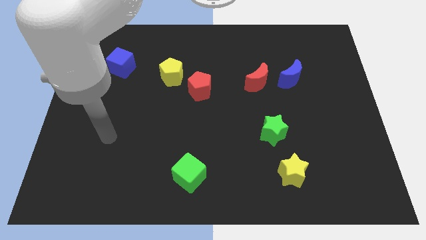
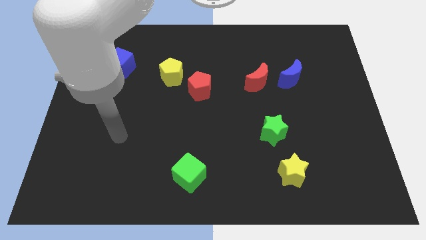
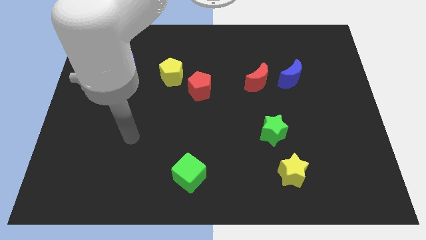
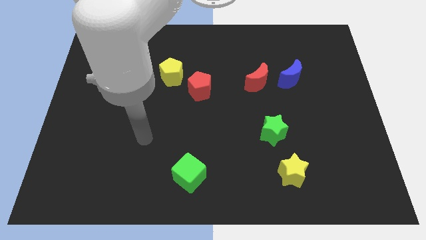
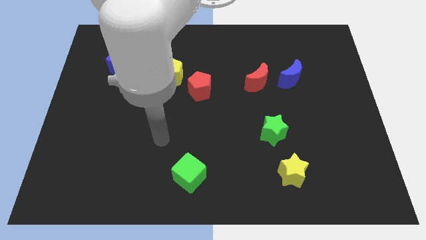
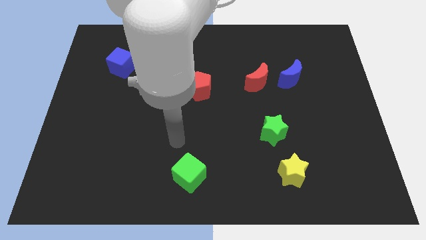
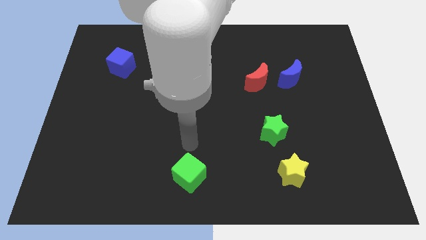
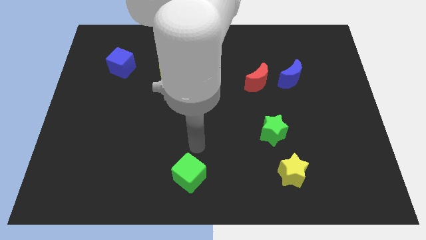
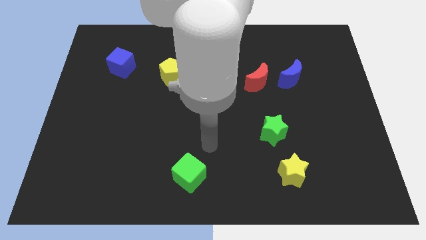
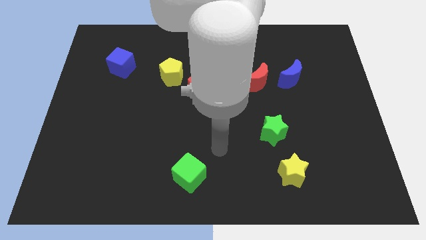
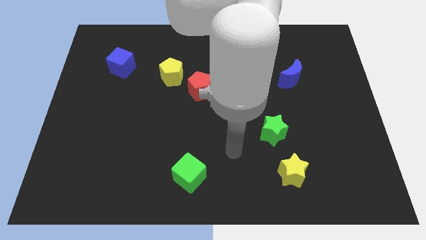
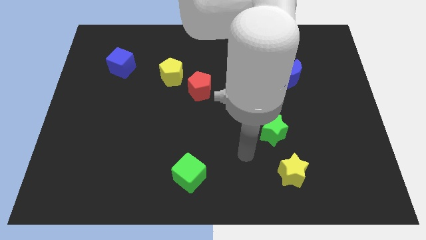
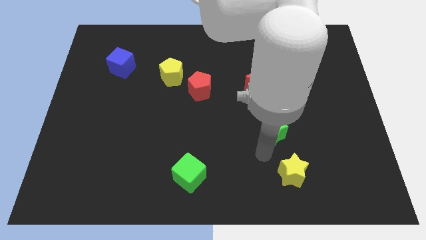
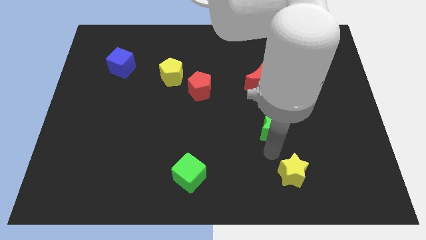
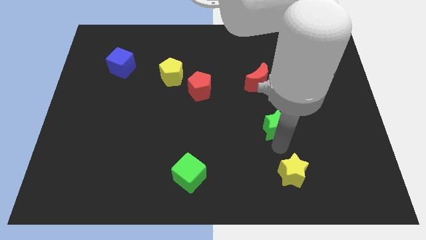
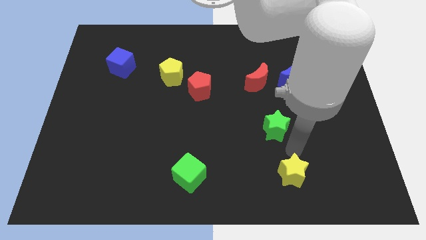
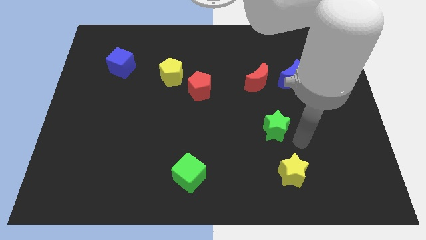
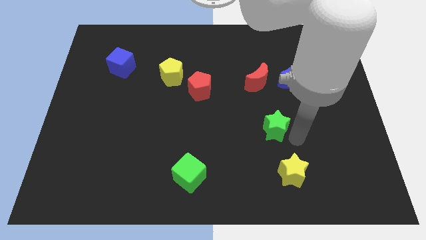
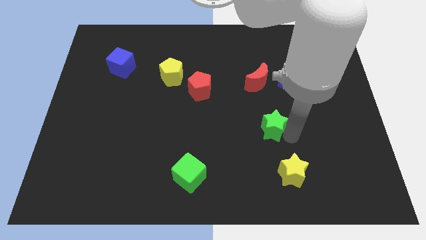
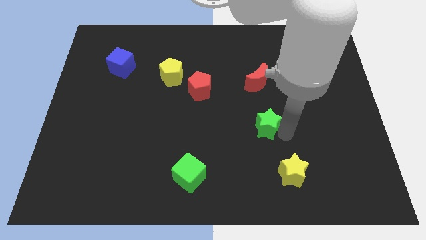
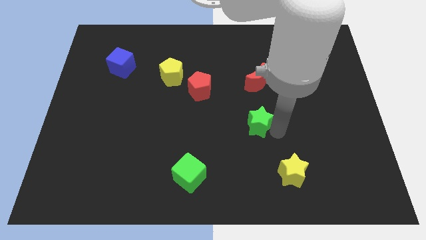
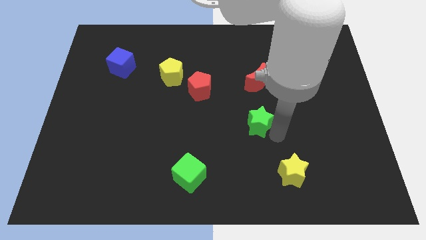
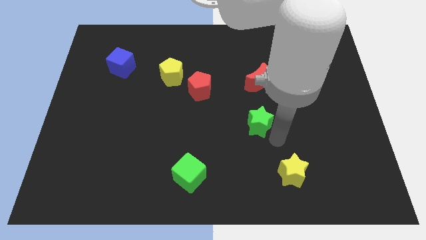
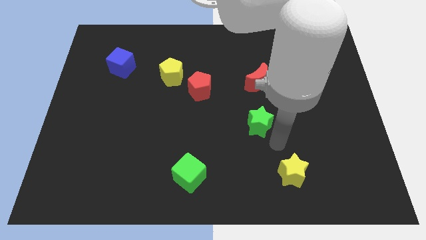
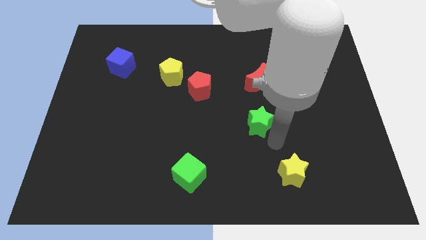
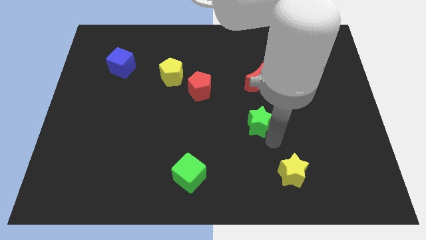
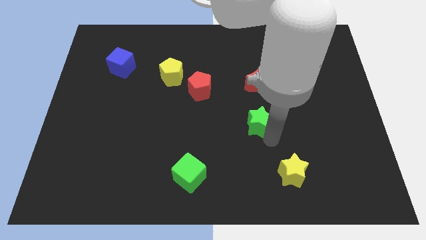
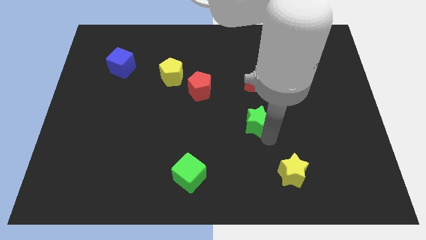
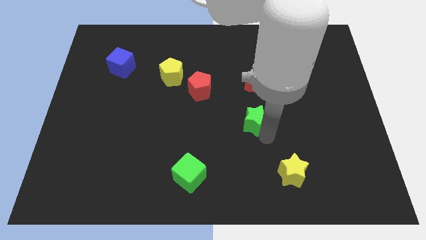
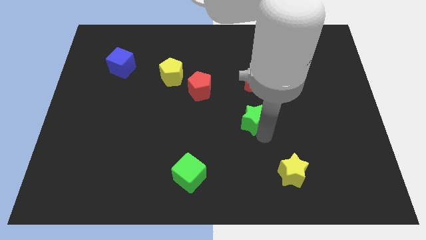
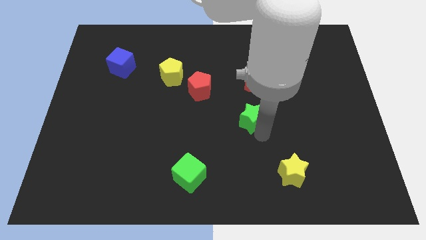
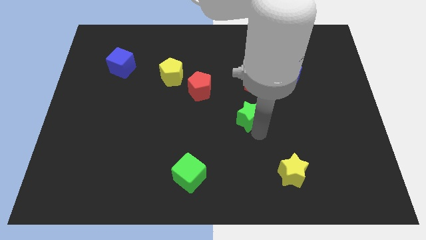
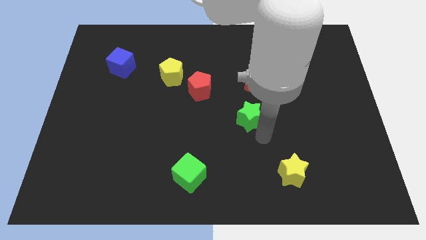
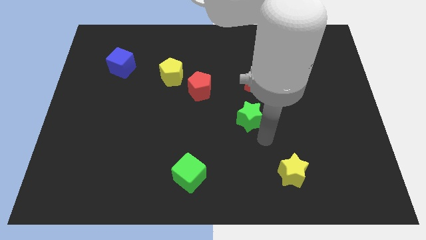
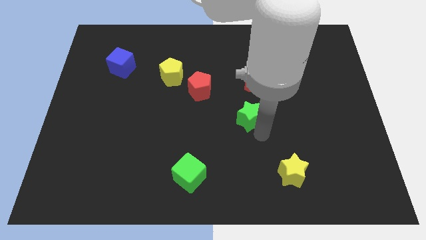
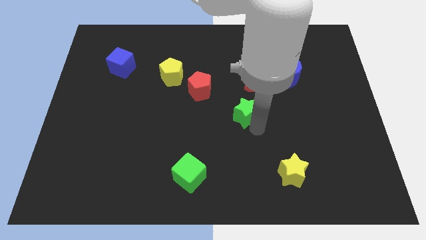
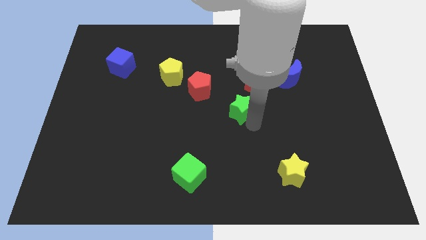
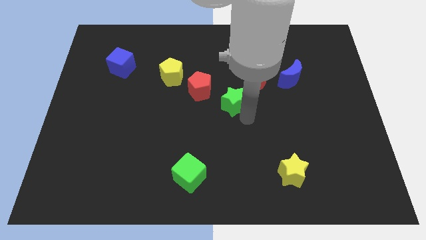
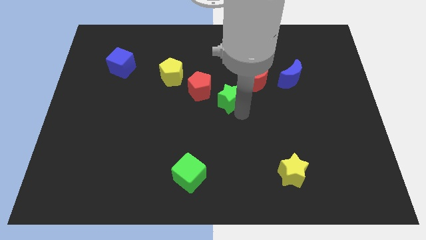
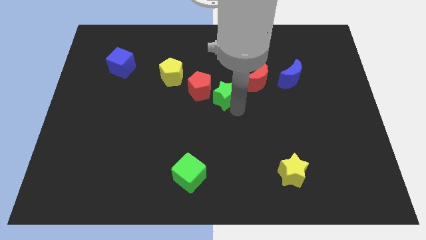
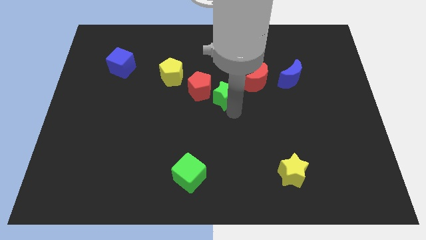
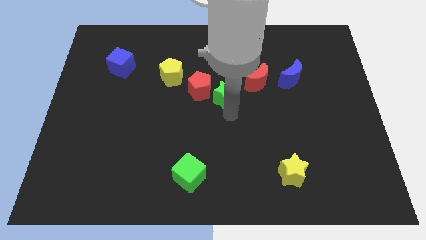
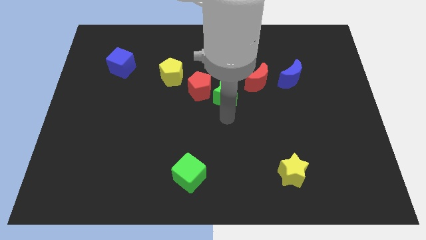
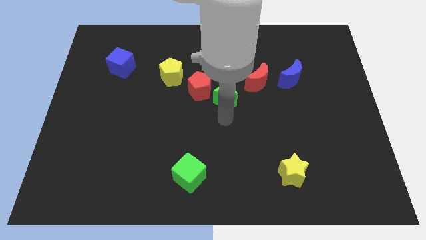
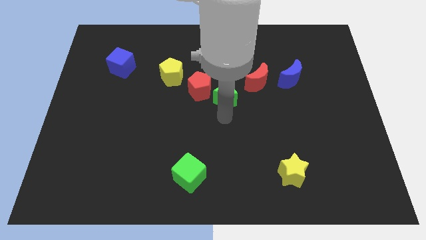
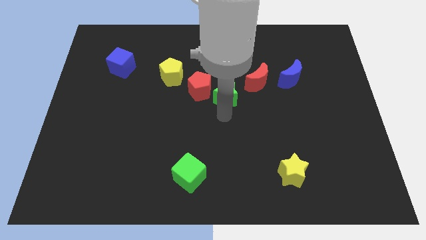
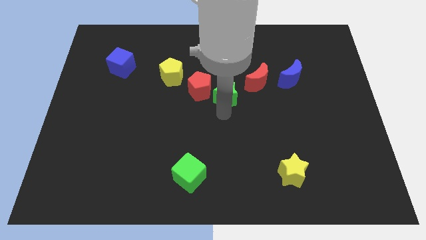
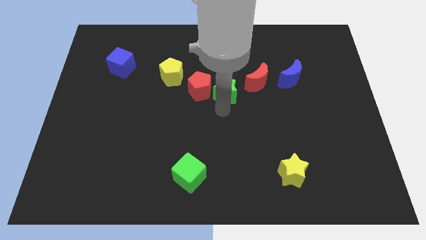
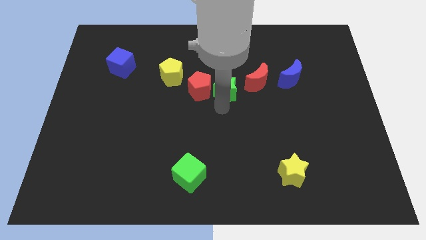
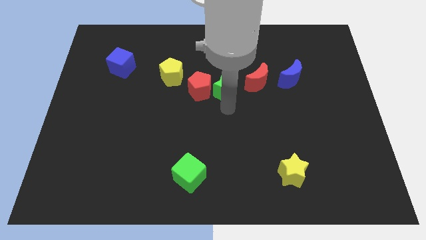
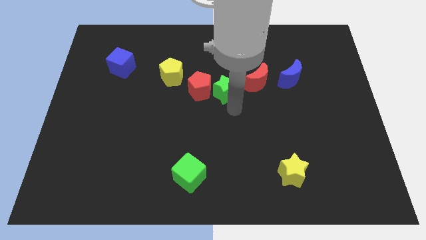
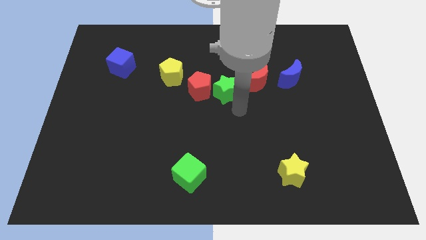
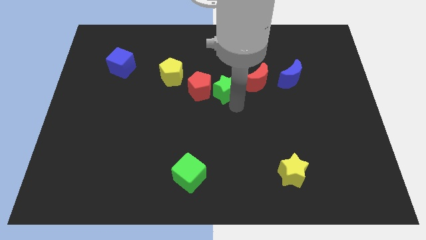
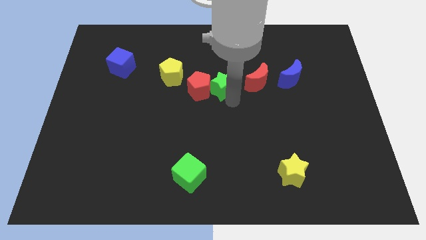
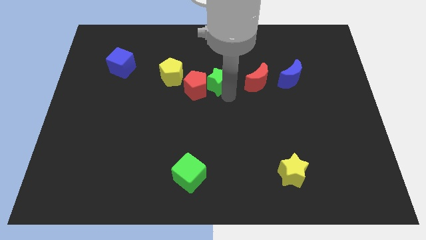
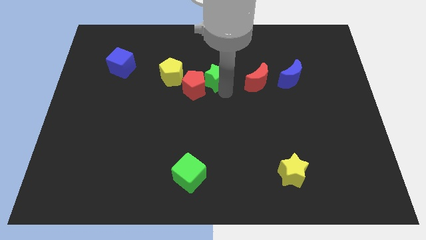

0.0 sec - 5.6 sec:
slide the green star upwards and left

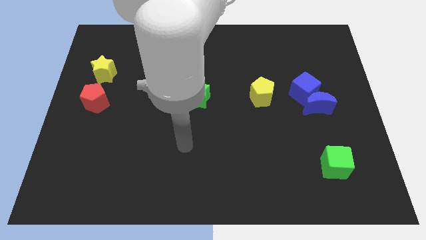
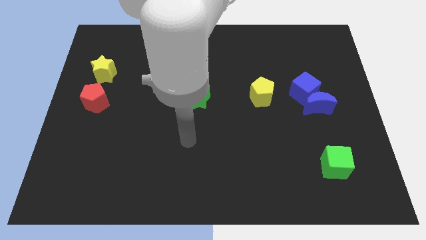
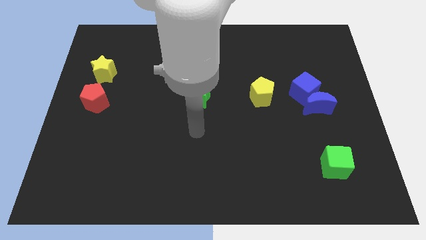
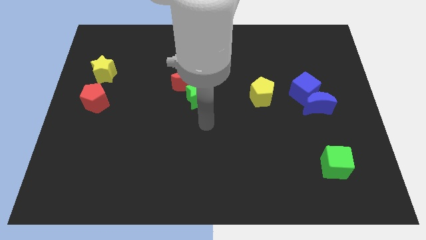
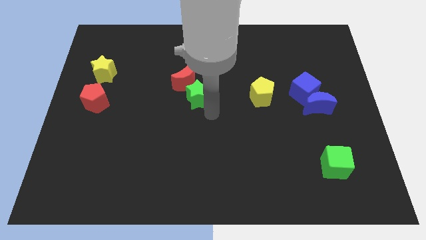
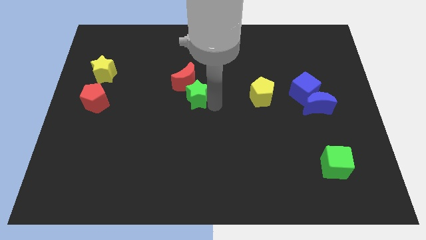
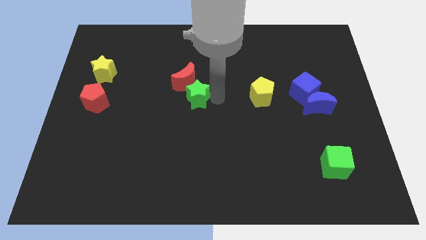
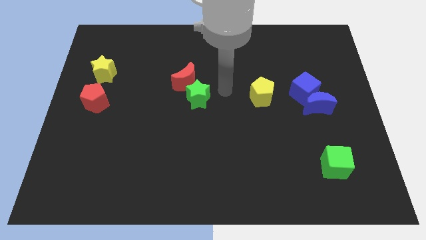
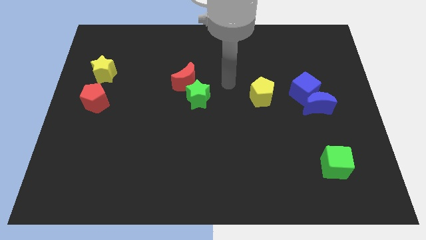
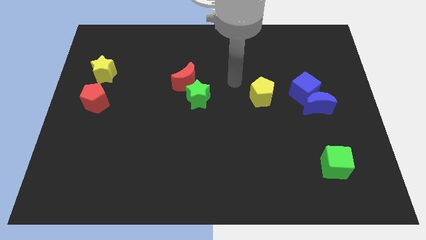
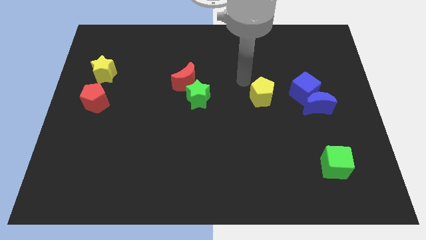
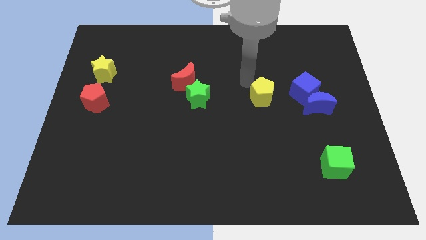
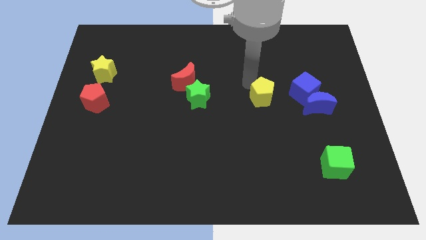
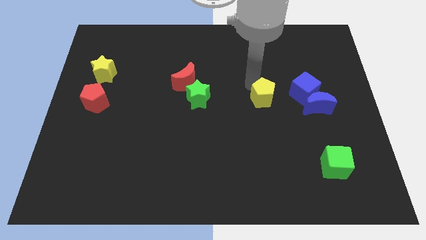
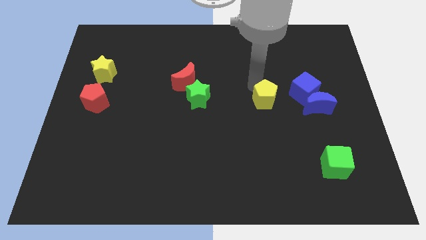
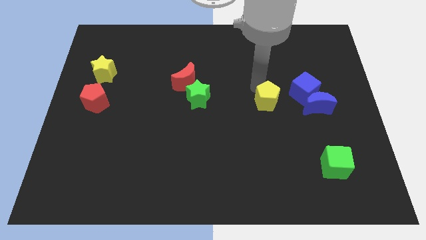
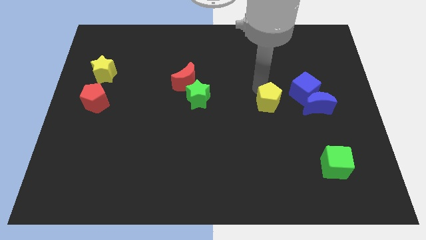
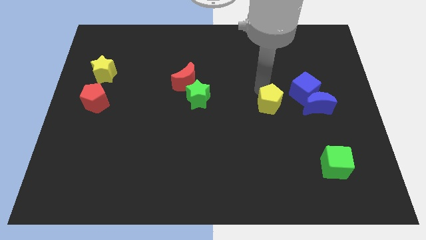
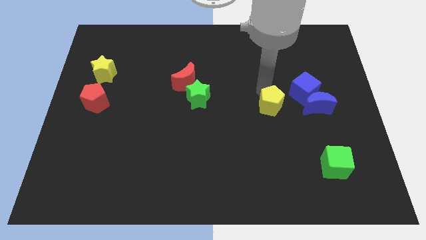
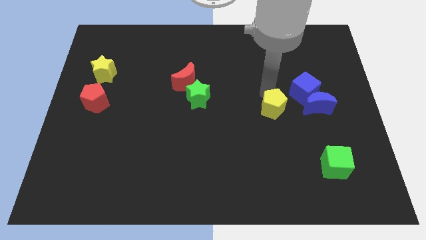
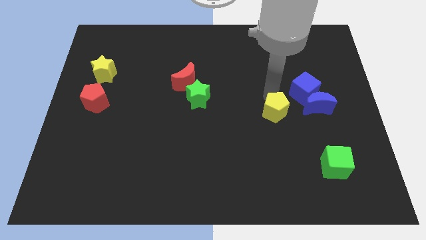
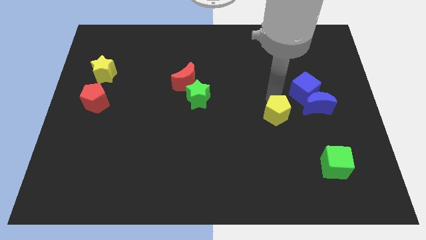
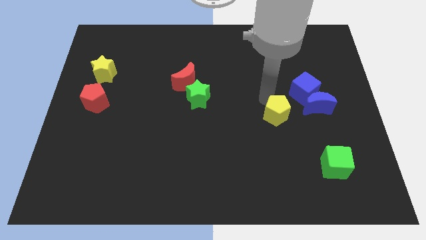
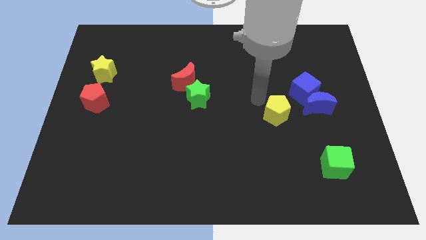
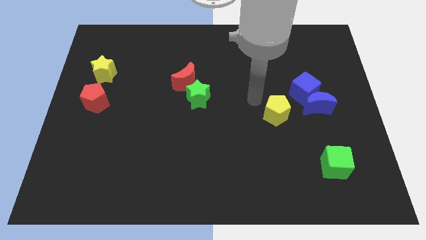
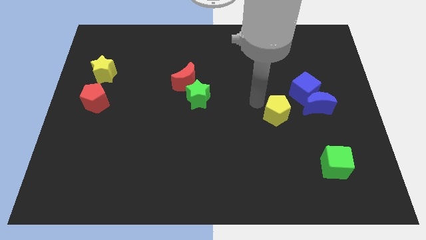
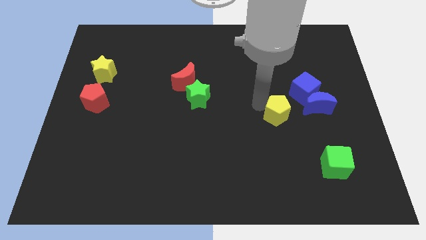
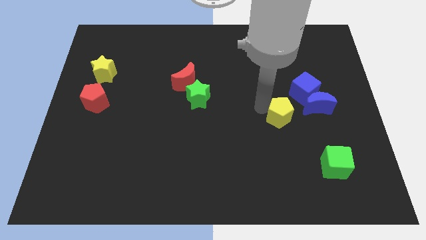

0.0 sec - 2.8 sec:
move the yellow pentagon slightly down and to the right
